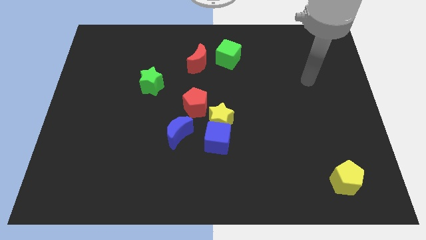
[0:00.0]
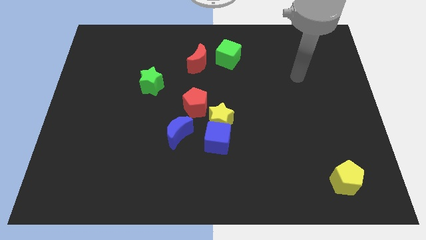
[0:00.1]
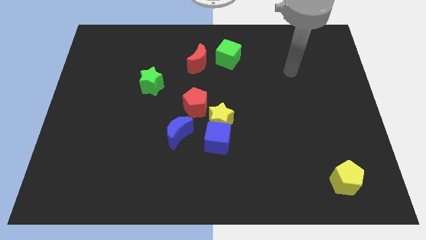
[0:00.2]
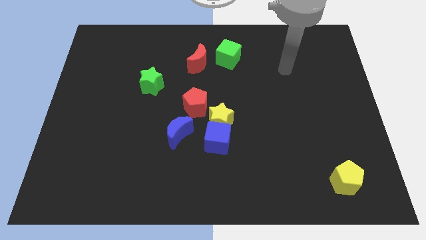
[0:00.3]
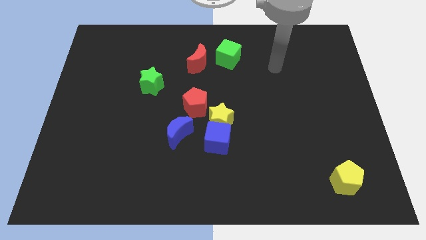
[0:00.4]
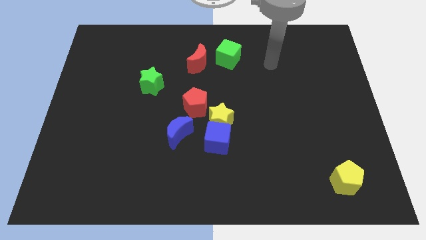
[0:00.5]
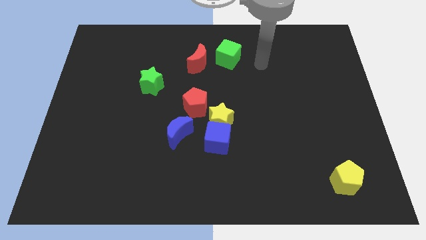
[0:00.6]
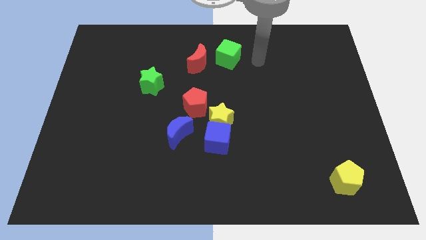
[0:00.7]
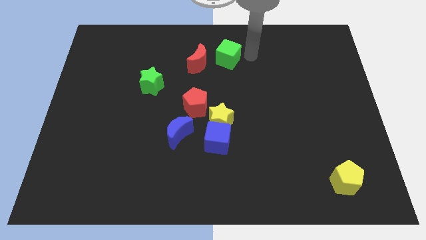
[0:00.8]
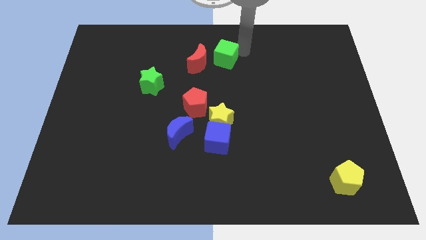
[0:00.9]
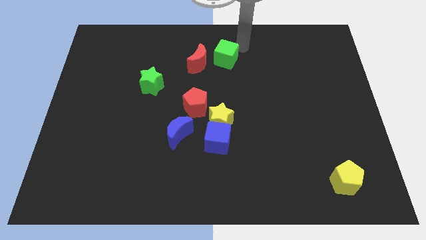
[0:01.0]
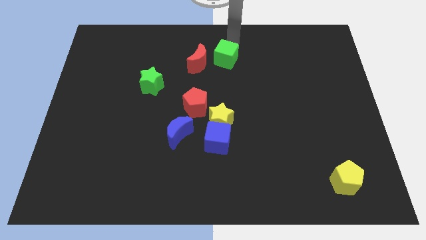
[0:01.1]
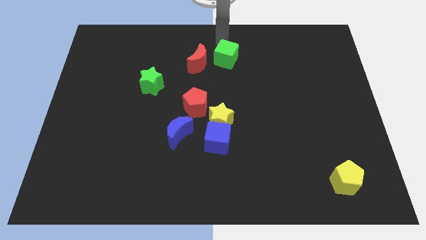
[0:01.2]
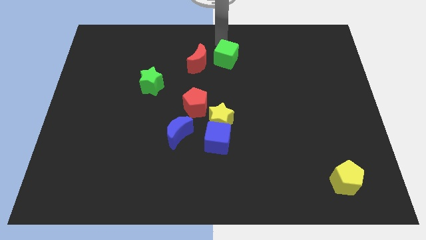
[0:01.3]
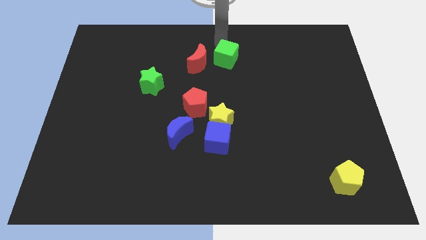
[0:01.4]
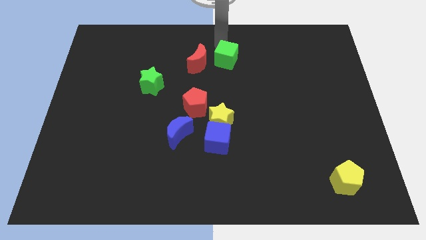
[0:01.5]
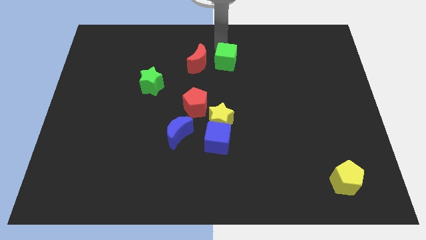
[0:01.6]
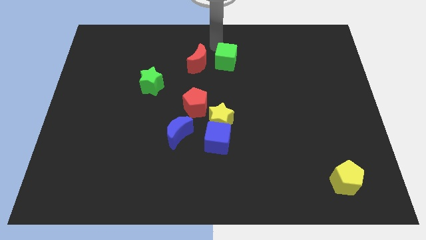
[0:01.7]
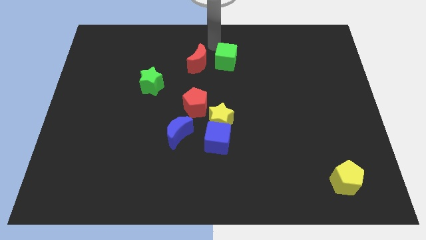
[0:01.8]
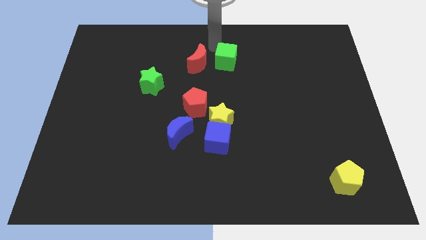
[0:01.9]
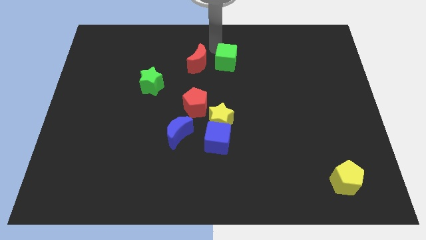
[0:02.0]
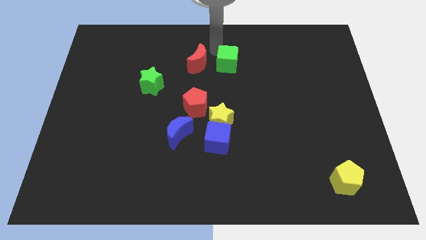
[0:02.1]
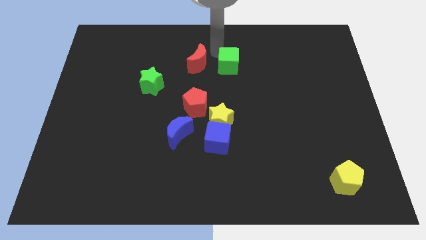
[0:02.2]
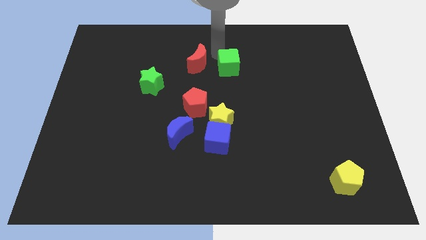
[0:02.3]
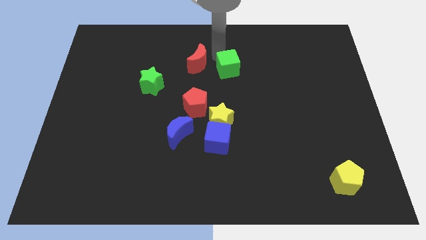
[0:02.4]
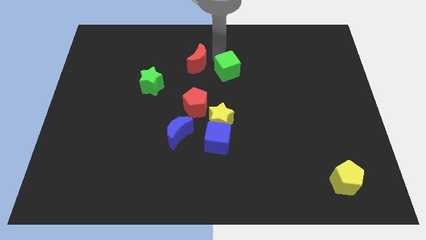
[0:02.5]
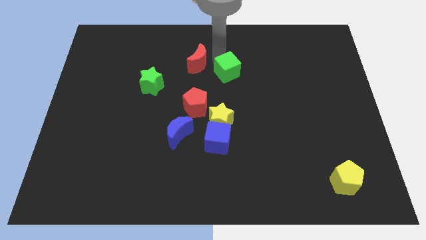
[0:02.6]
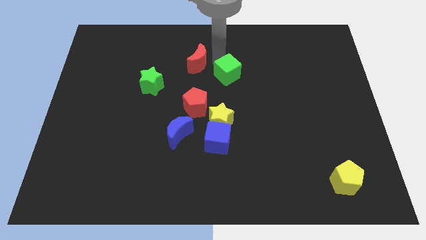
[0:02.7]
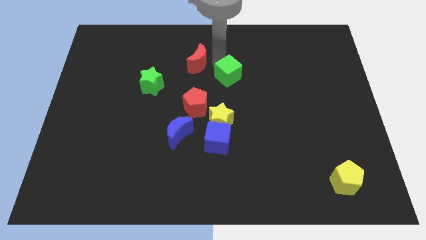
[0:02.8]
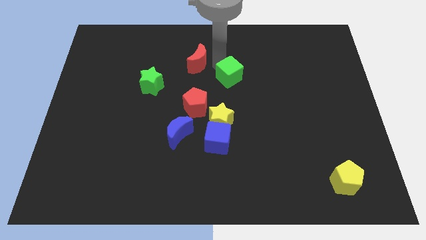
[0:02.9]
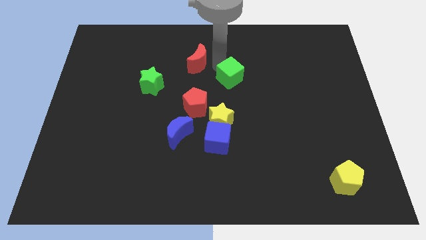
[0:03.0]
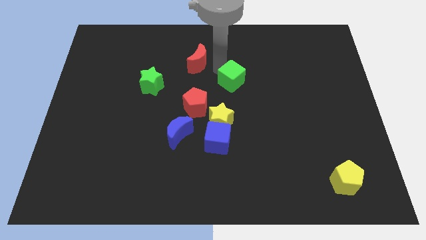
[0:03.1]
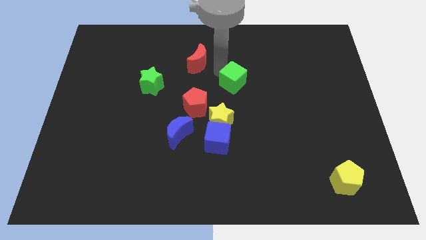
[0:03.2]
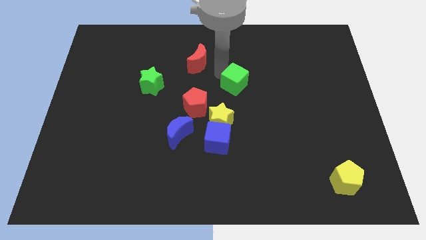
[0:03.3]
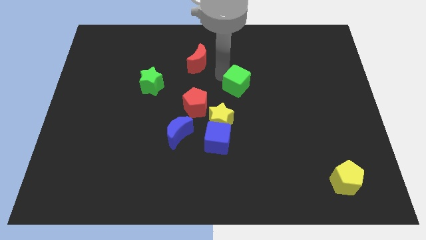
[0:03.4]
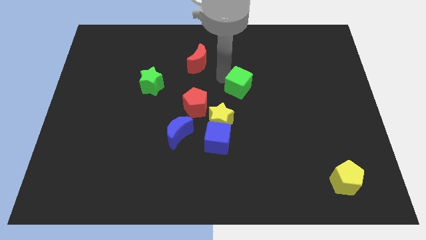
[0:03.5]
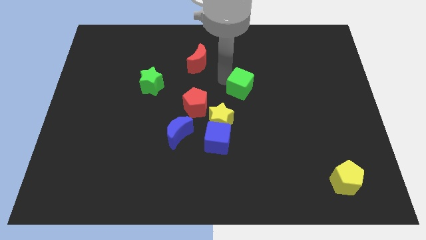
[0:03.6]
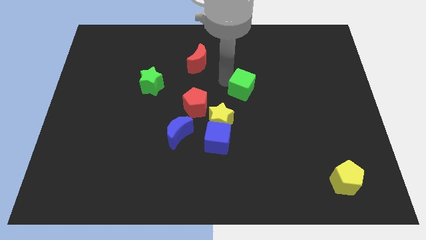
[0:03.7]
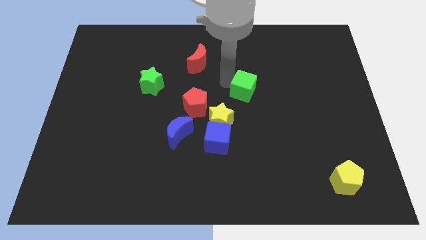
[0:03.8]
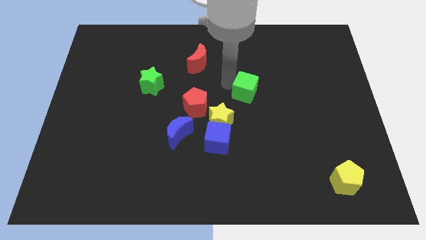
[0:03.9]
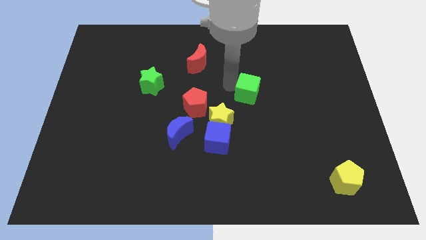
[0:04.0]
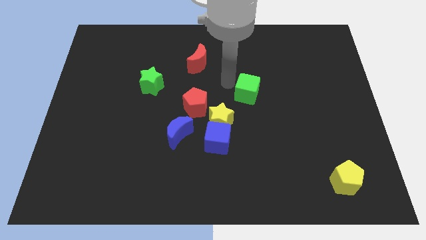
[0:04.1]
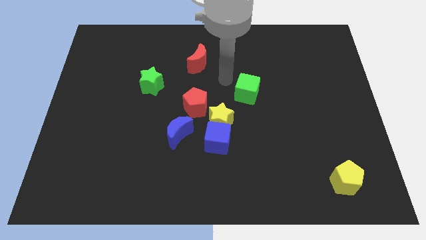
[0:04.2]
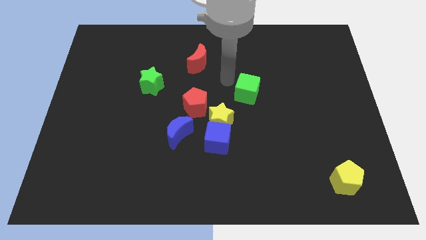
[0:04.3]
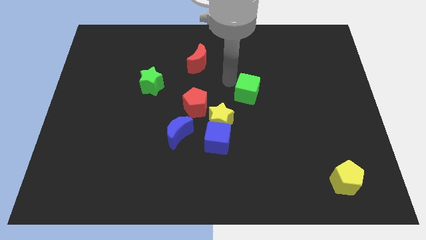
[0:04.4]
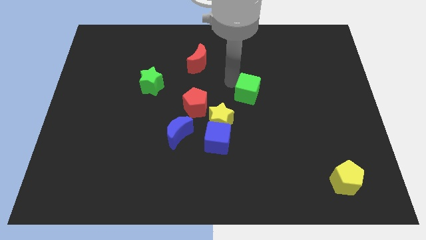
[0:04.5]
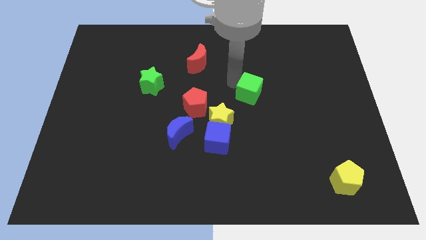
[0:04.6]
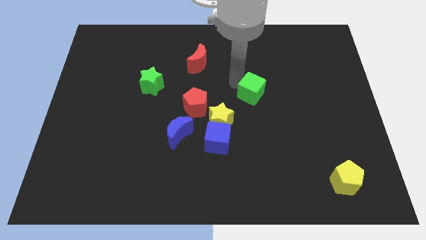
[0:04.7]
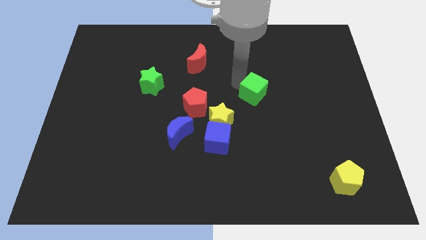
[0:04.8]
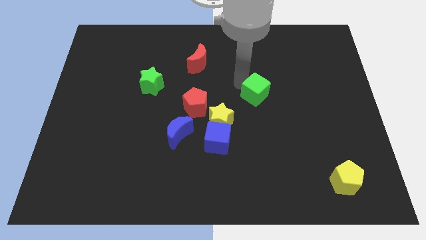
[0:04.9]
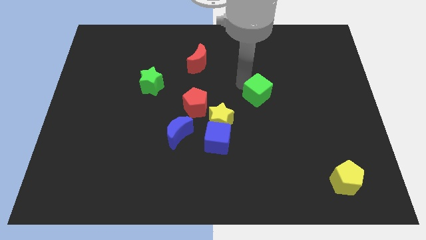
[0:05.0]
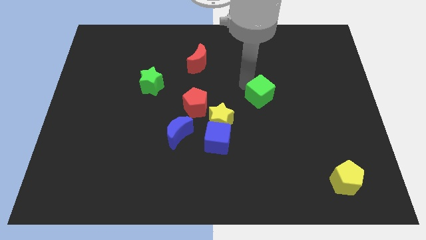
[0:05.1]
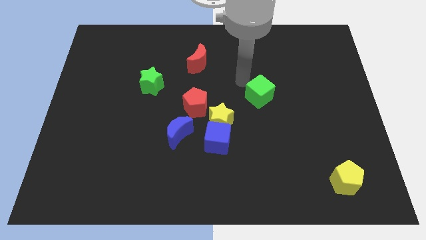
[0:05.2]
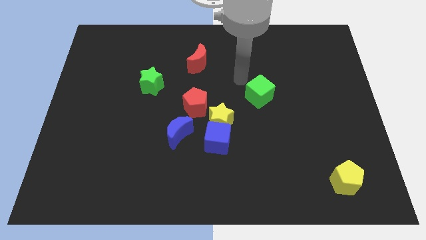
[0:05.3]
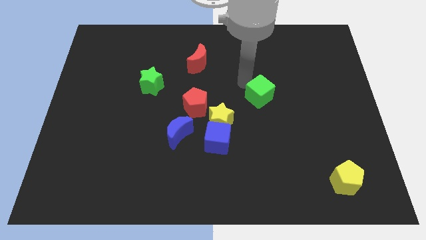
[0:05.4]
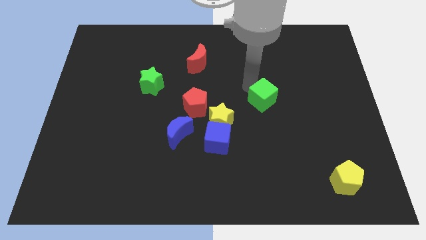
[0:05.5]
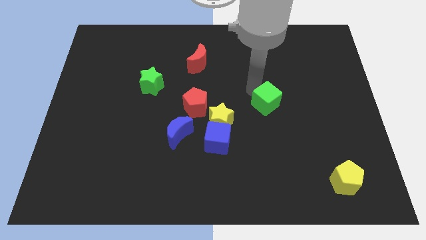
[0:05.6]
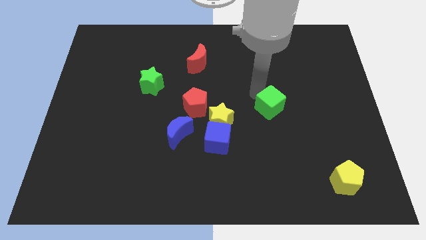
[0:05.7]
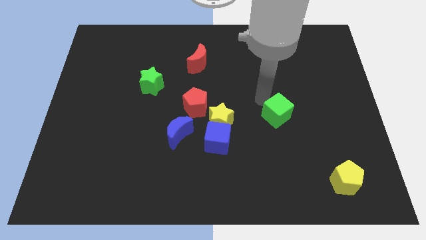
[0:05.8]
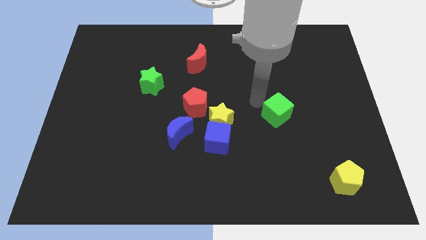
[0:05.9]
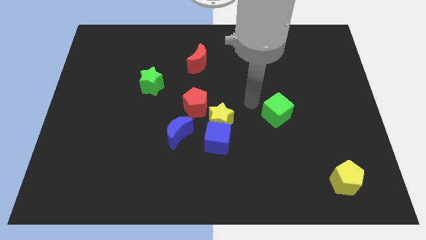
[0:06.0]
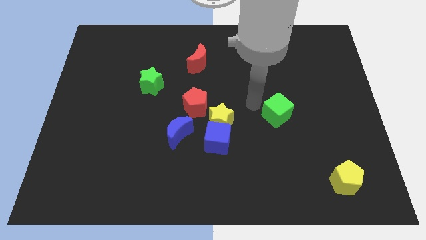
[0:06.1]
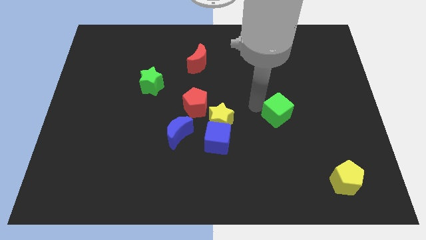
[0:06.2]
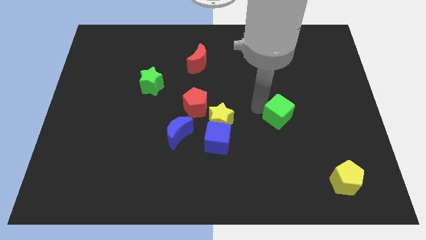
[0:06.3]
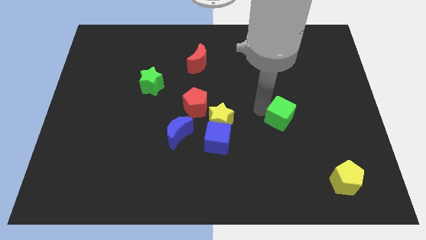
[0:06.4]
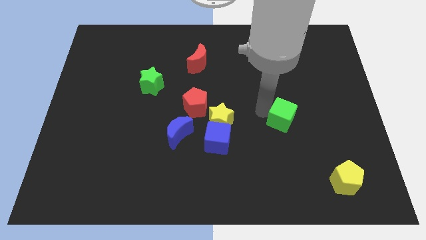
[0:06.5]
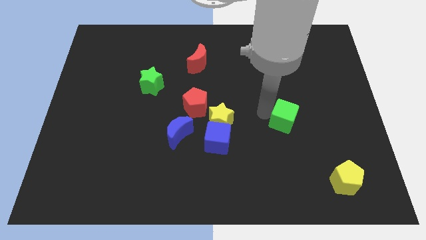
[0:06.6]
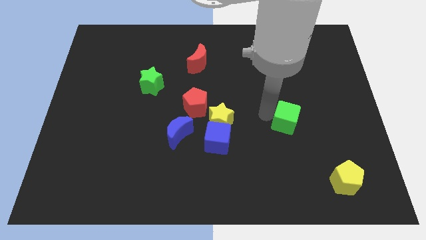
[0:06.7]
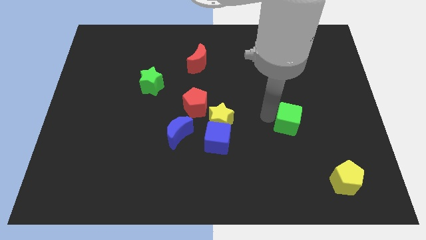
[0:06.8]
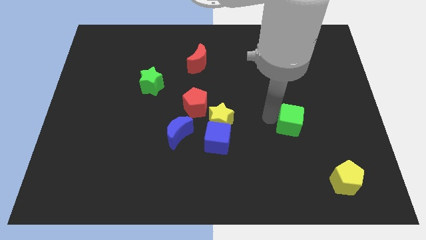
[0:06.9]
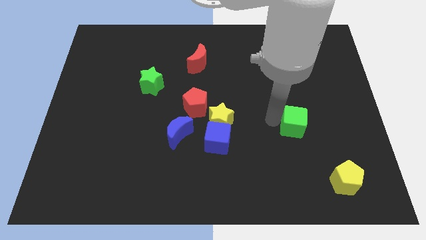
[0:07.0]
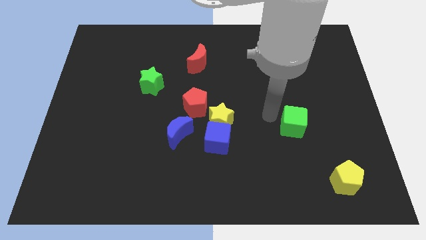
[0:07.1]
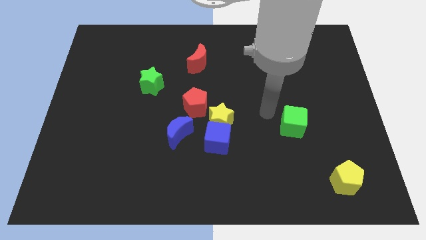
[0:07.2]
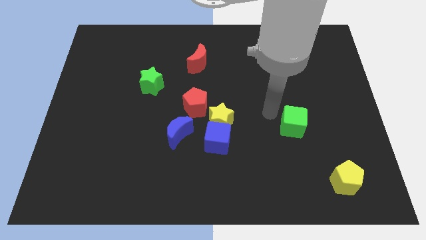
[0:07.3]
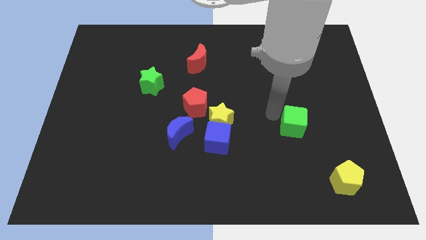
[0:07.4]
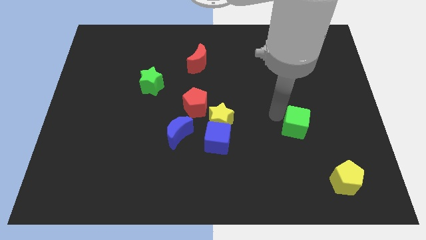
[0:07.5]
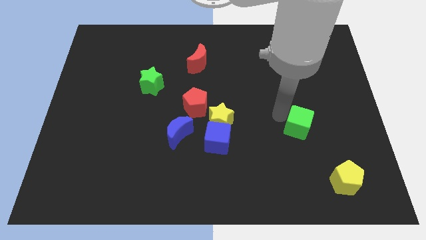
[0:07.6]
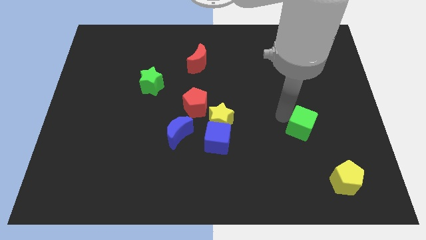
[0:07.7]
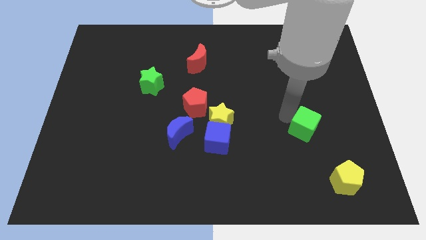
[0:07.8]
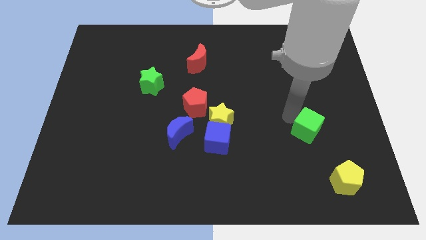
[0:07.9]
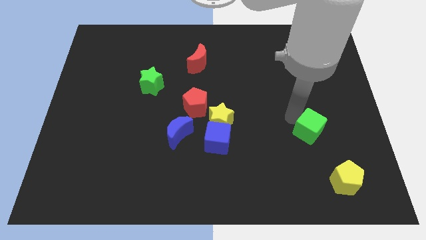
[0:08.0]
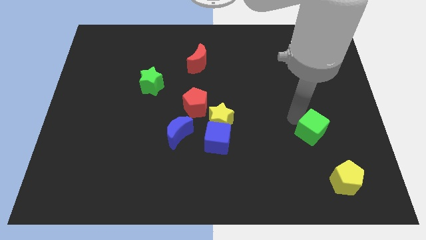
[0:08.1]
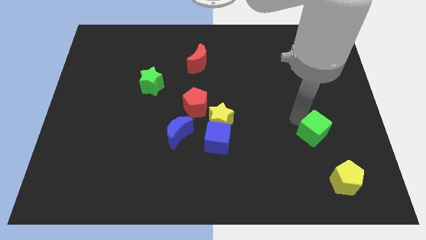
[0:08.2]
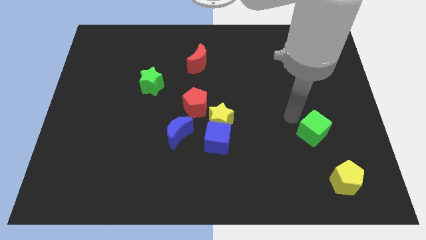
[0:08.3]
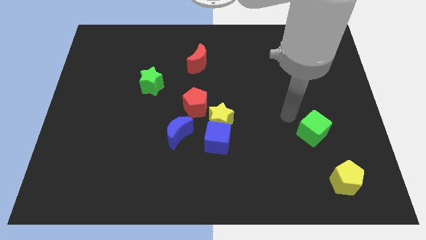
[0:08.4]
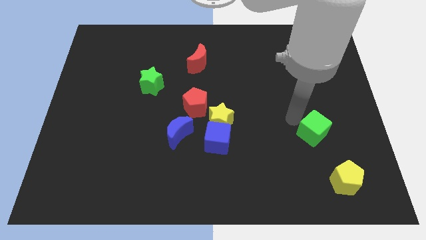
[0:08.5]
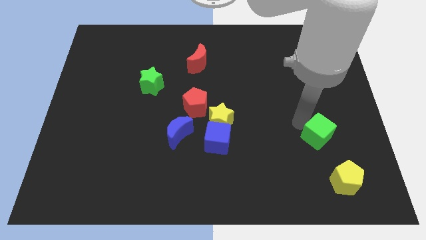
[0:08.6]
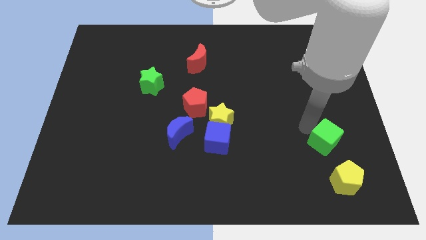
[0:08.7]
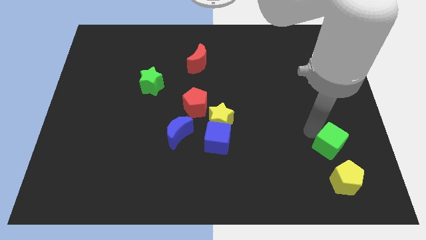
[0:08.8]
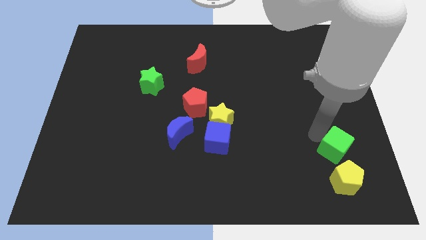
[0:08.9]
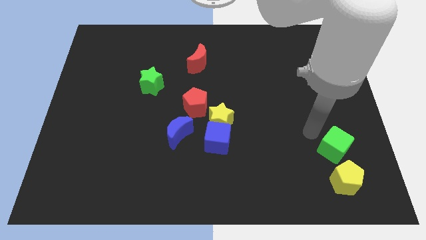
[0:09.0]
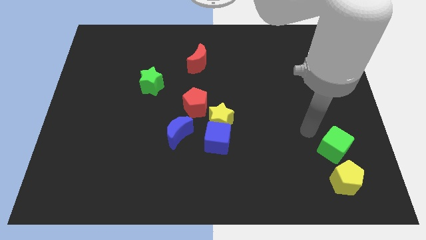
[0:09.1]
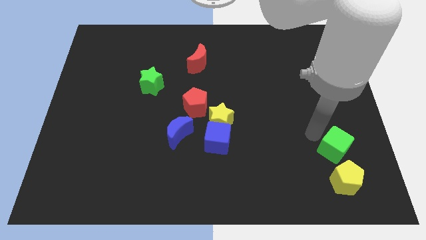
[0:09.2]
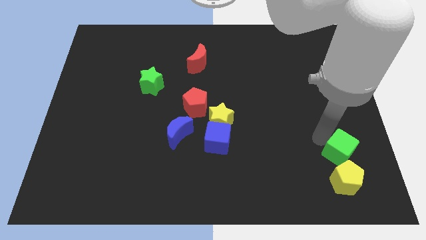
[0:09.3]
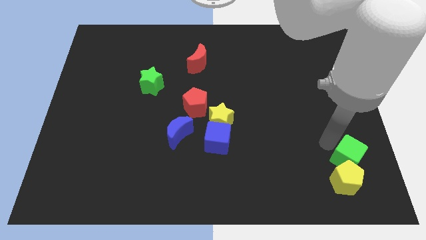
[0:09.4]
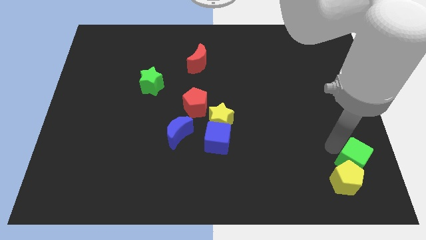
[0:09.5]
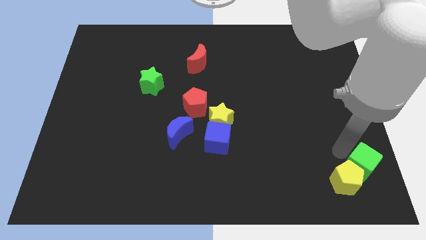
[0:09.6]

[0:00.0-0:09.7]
push the green cube to the bottom right of the board
